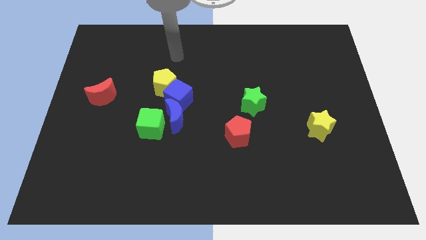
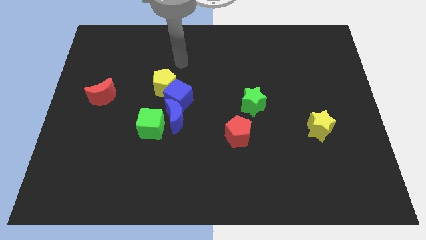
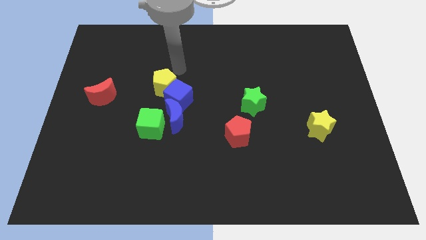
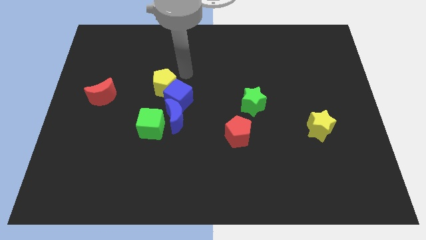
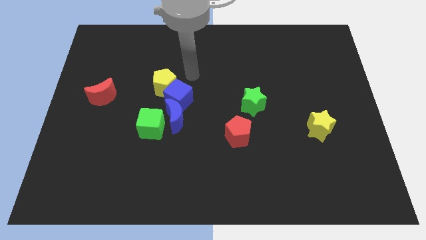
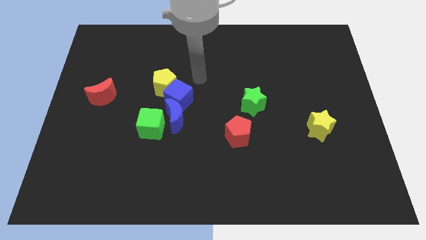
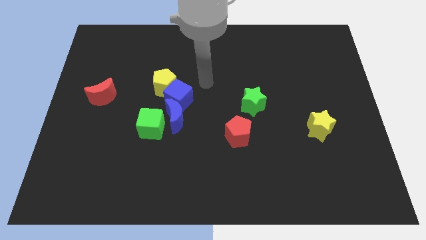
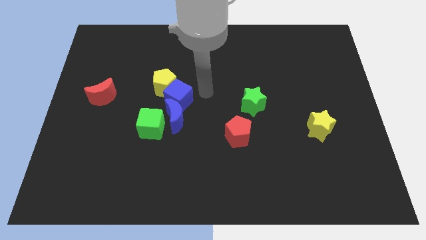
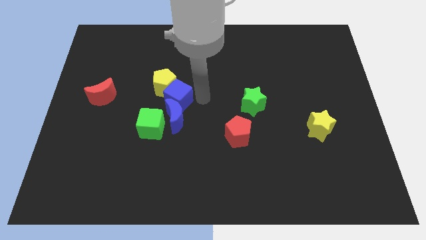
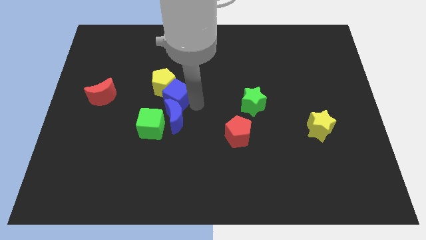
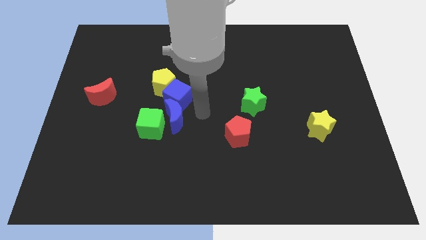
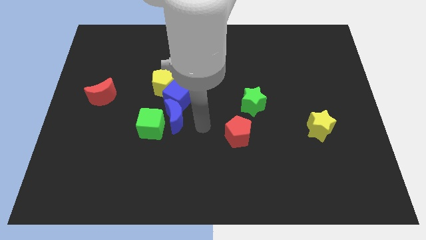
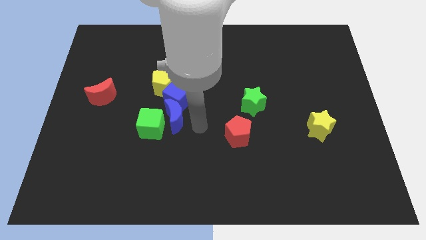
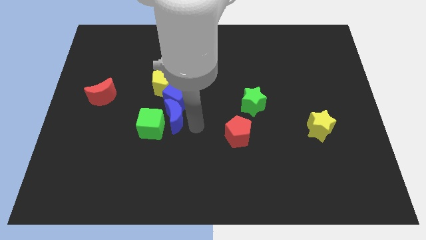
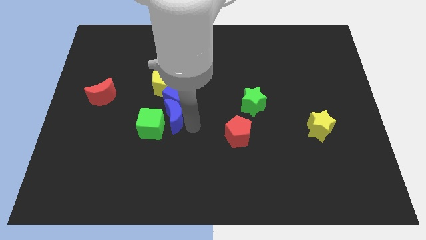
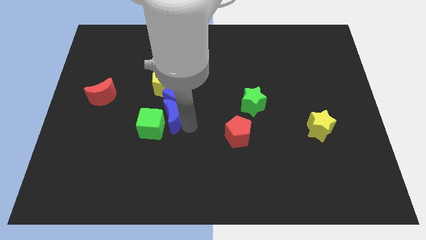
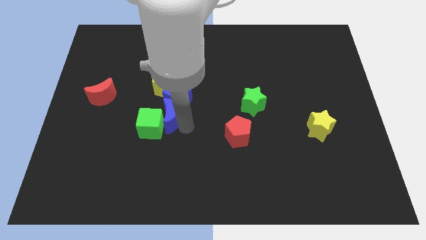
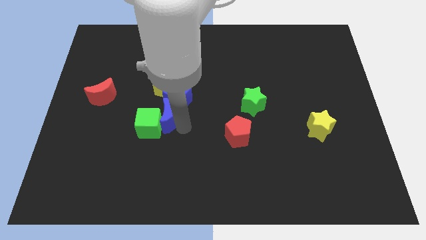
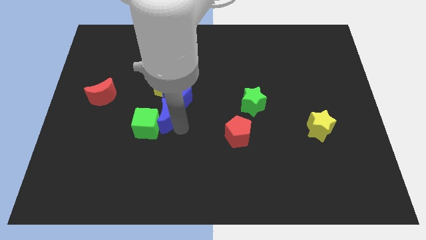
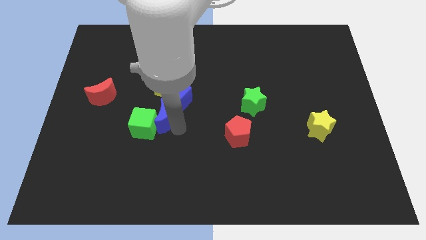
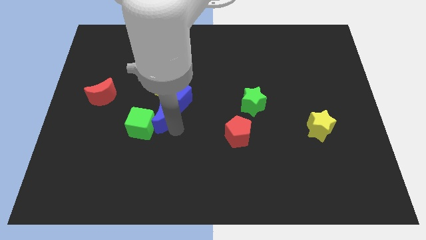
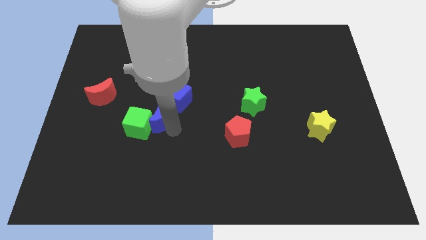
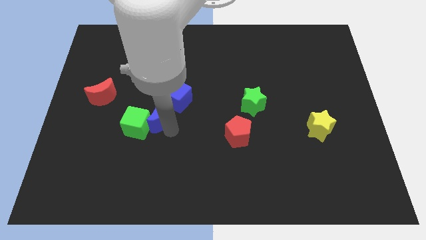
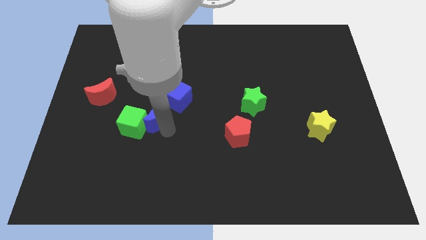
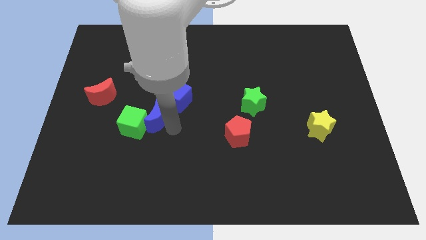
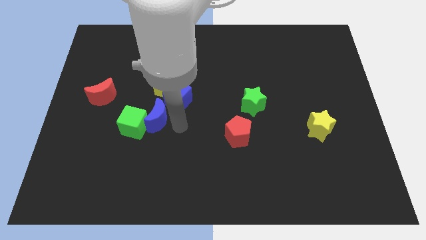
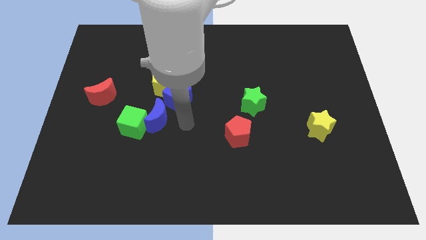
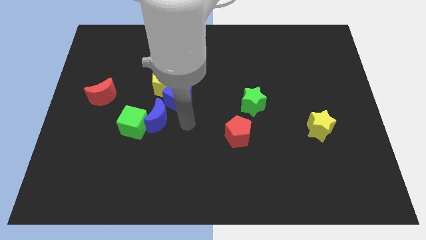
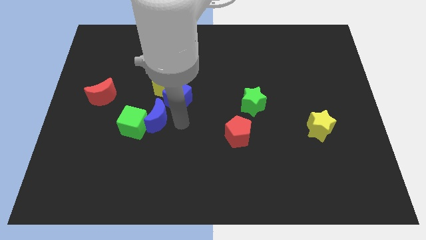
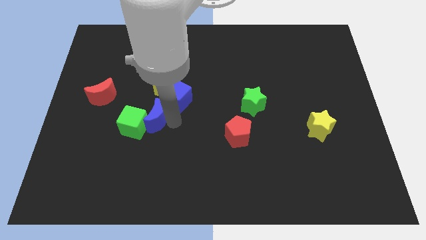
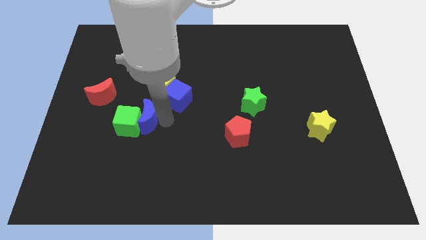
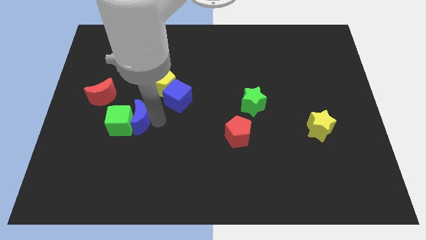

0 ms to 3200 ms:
push the blue moon a little bit to the left

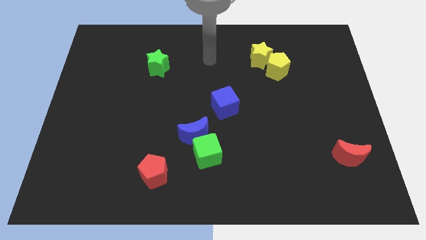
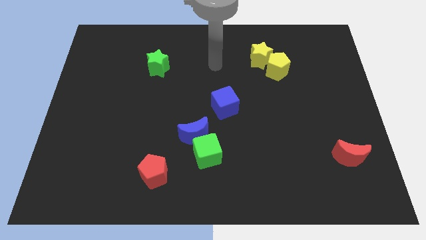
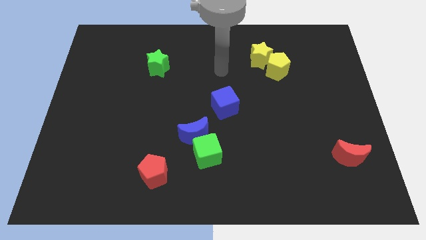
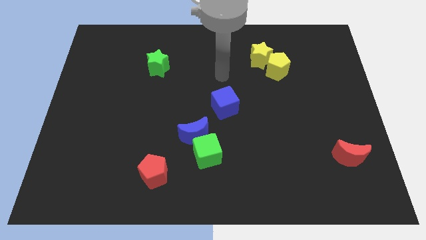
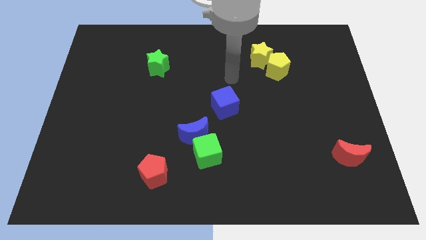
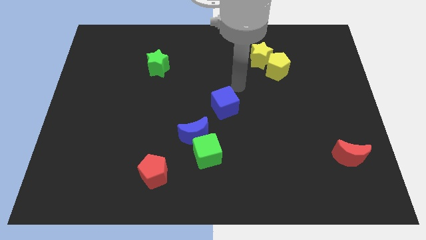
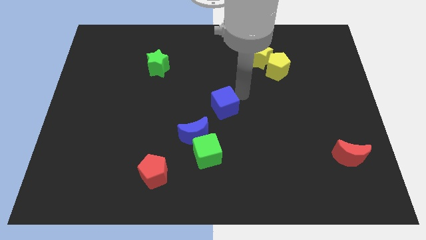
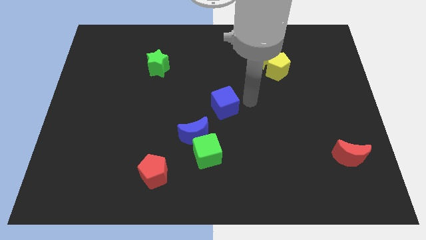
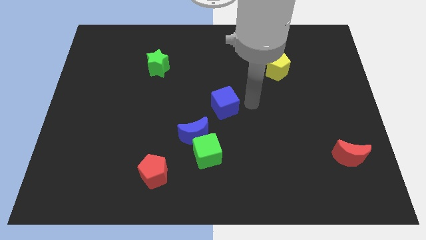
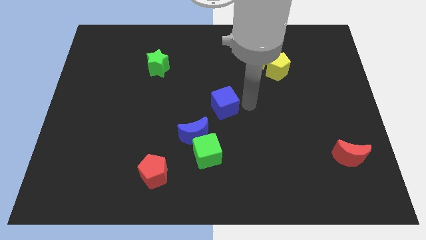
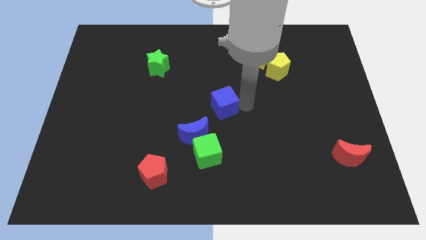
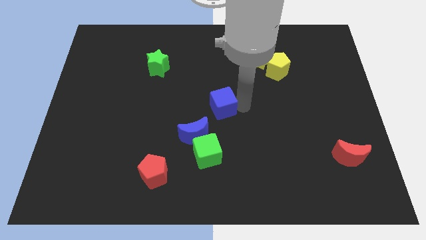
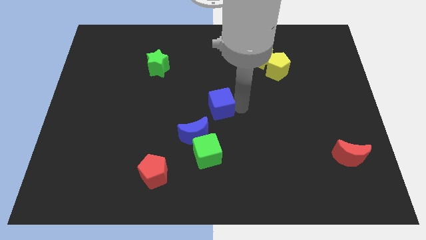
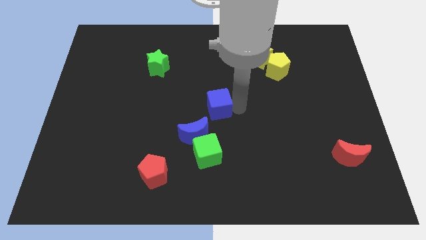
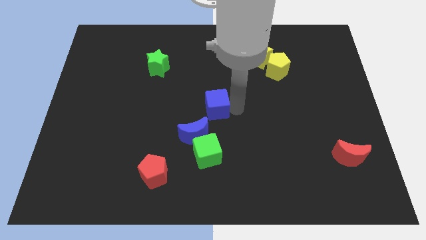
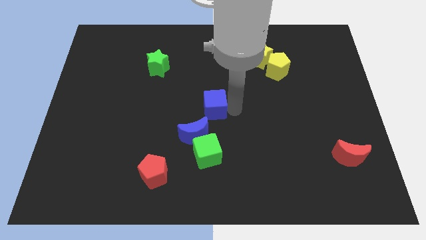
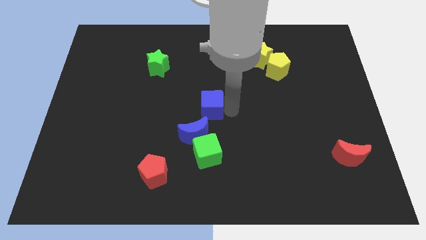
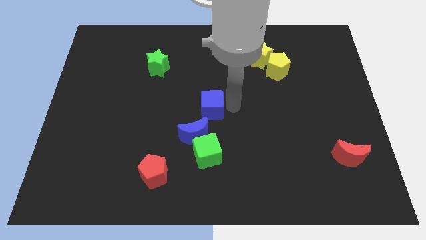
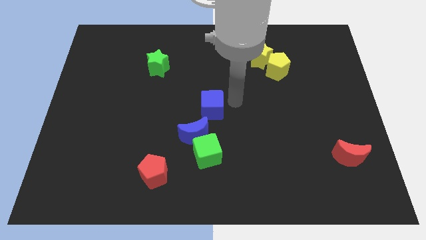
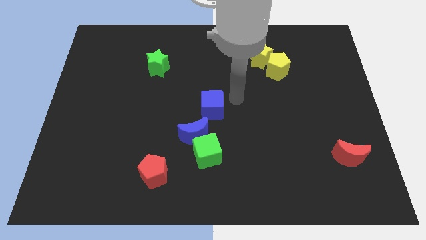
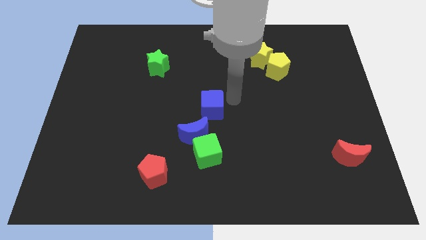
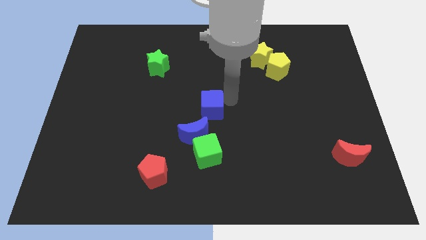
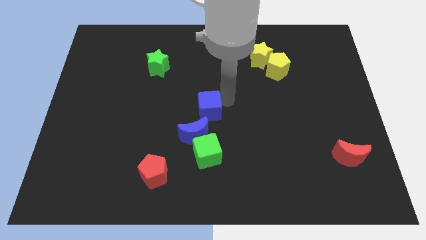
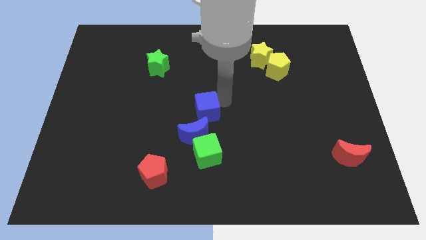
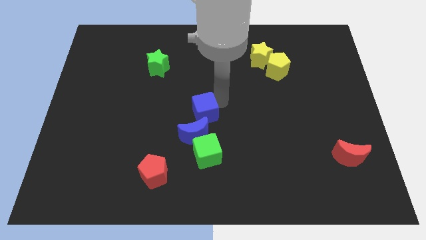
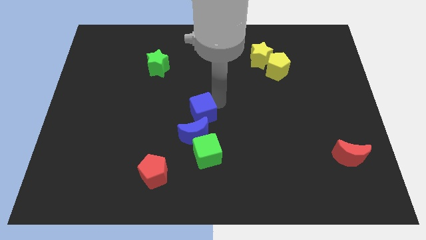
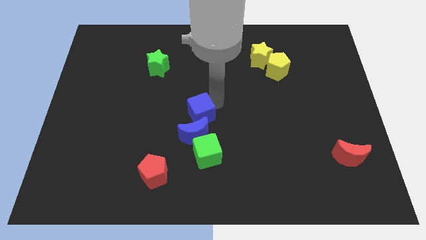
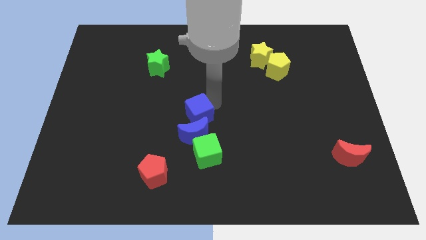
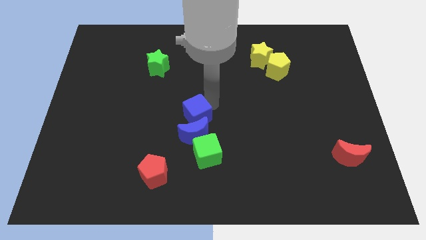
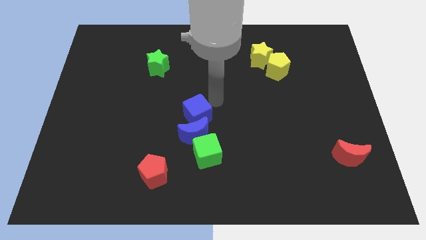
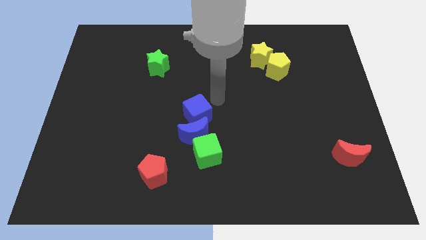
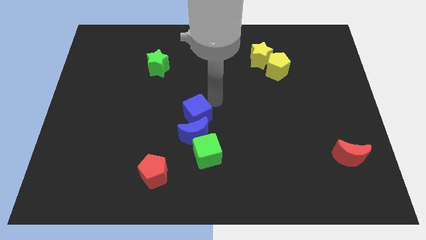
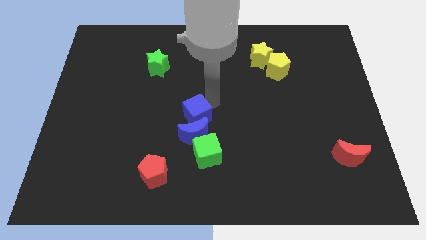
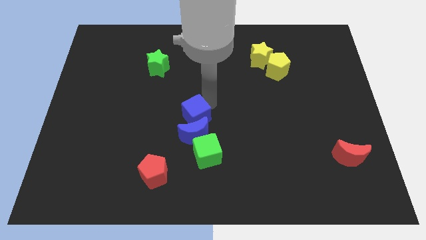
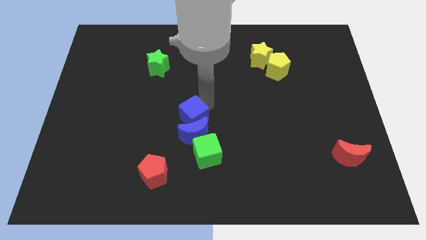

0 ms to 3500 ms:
push the blue cube slightly down and left

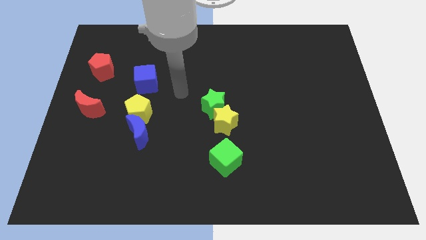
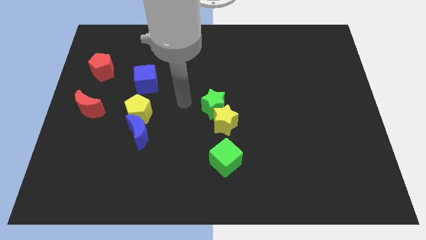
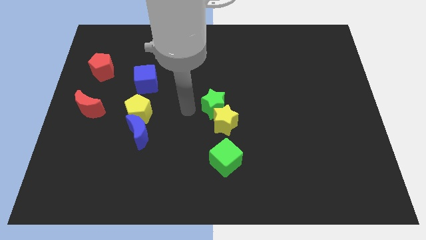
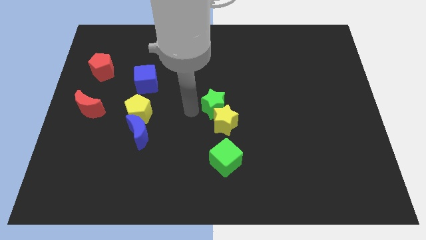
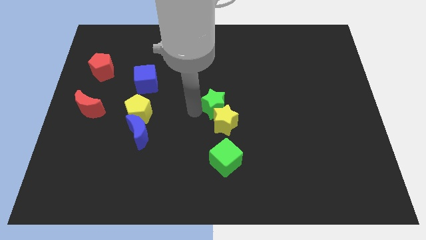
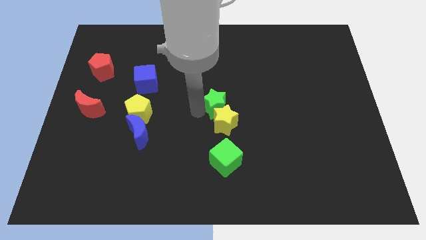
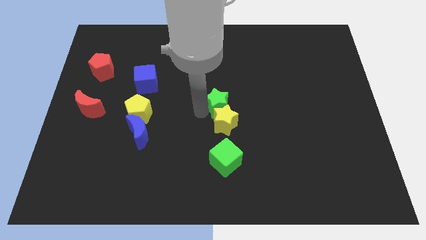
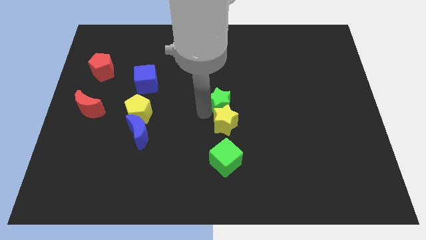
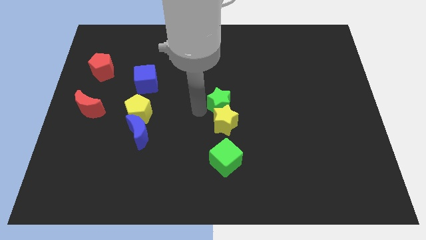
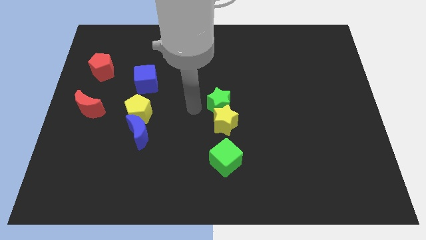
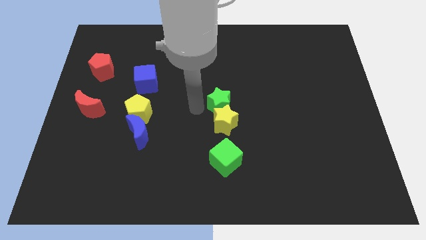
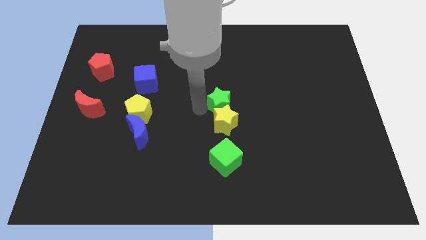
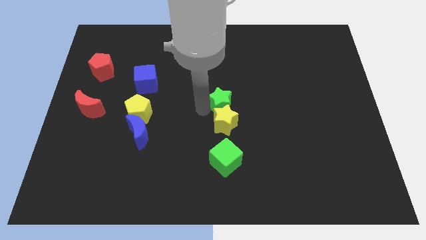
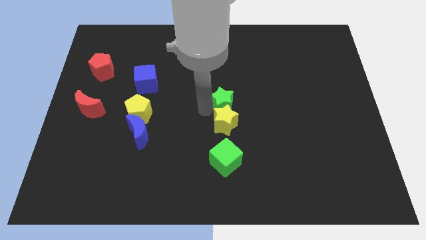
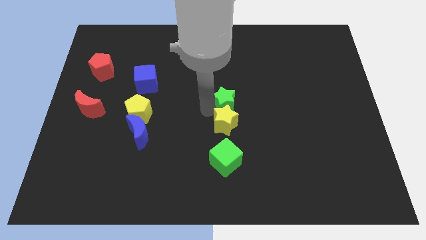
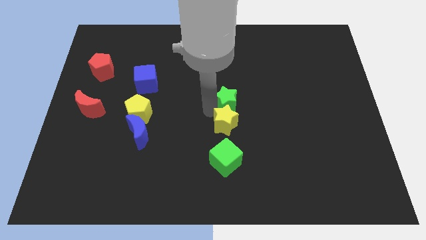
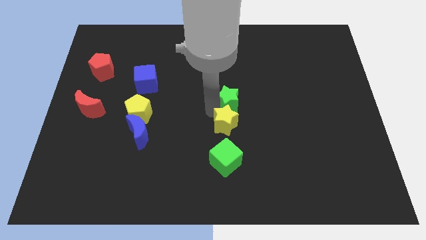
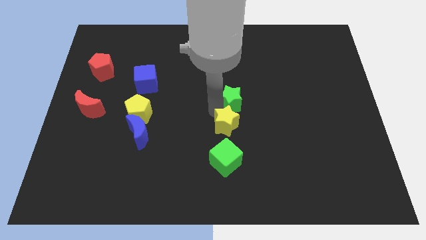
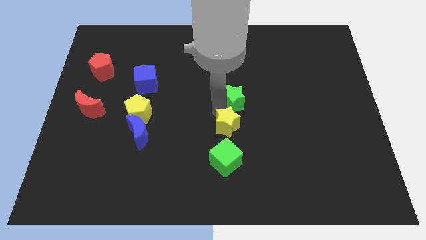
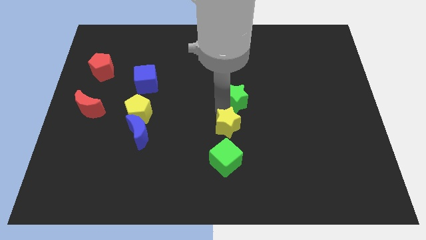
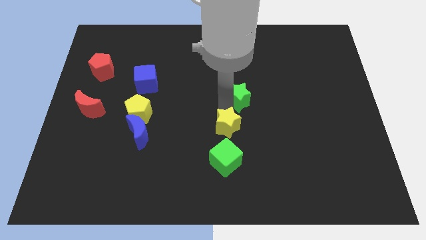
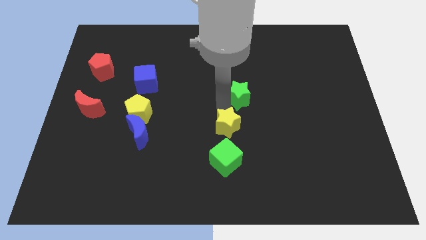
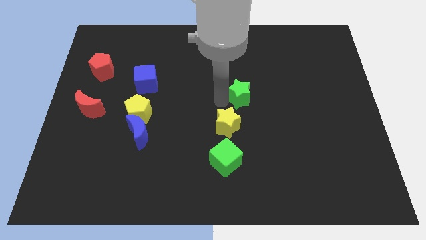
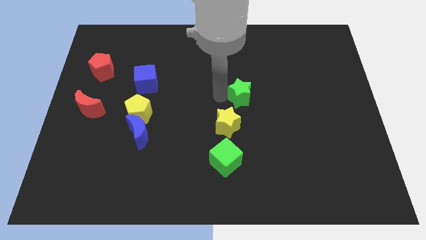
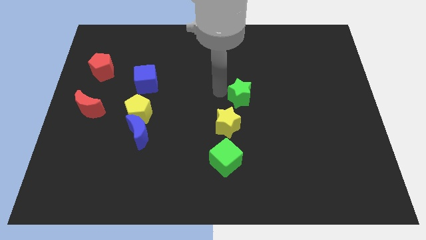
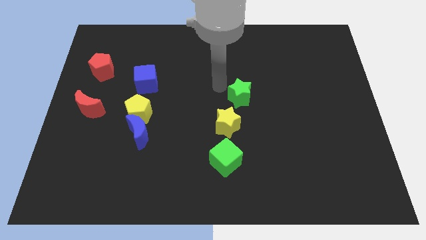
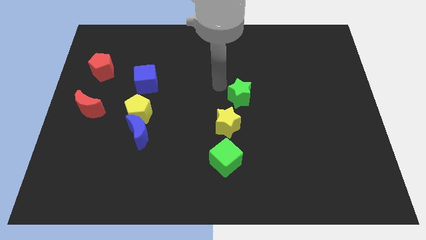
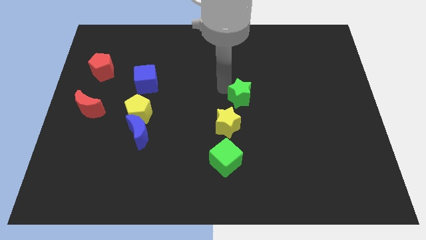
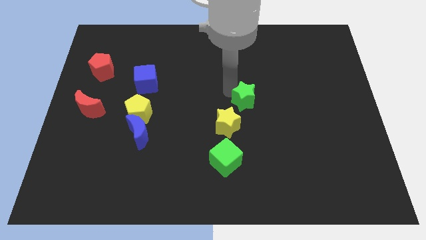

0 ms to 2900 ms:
push the green star to the right a little bit
